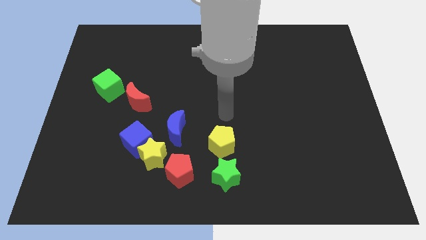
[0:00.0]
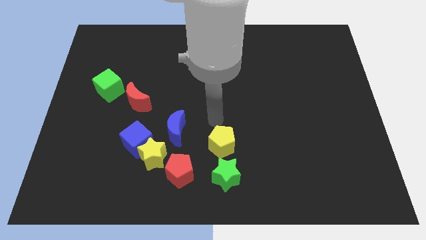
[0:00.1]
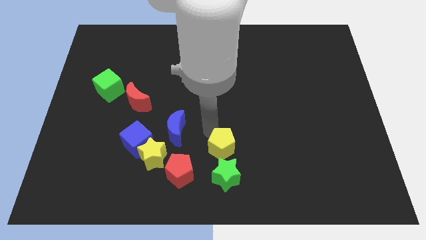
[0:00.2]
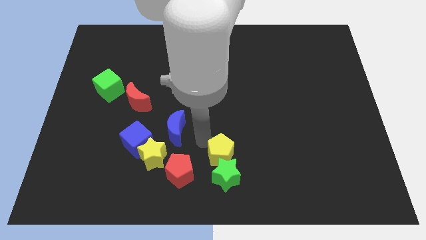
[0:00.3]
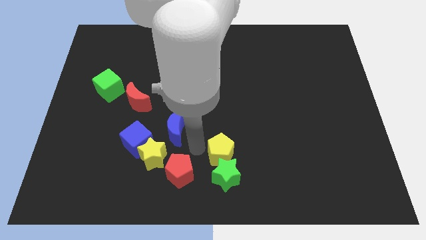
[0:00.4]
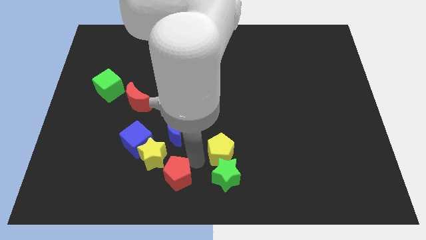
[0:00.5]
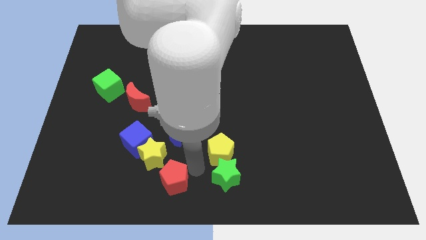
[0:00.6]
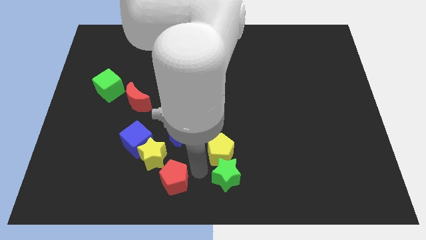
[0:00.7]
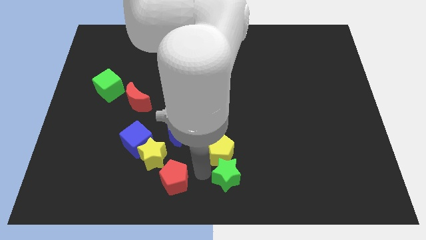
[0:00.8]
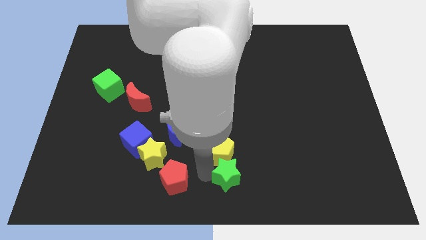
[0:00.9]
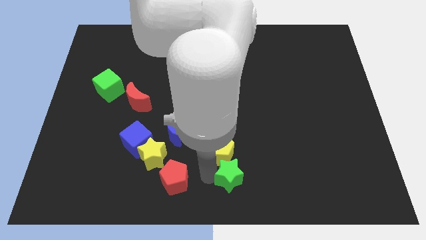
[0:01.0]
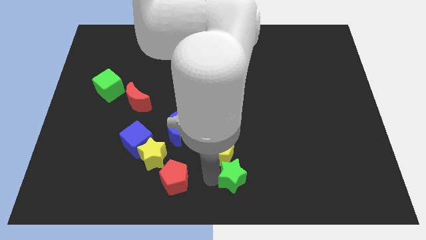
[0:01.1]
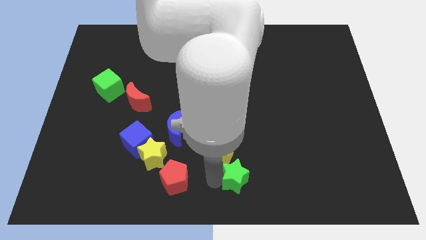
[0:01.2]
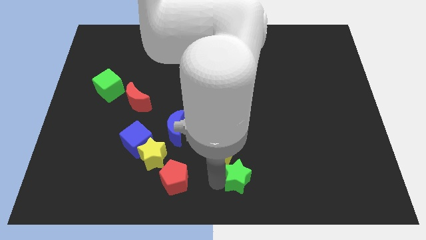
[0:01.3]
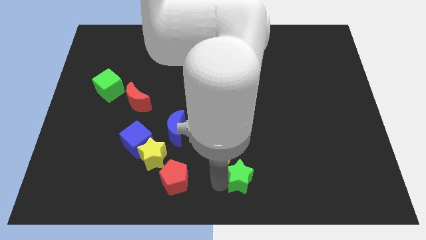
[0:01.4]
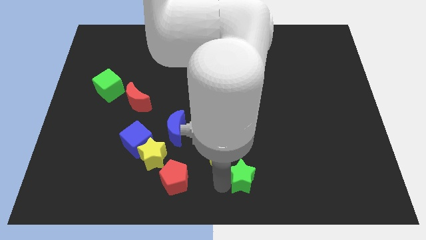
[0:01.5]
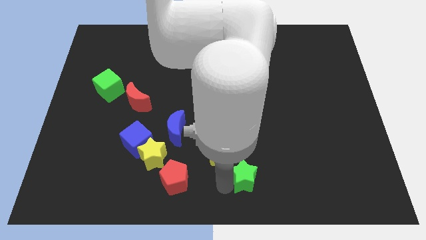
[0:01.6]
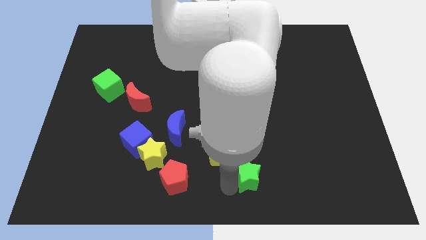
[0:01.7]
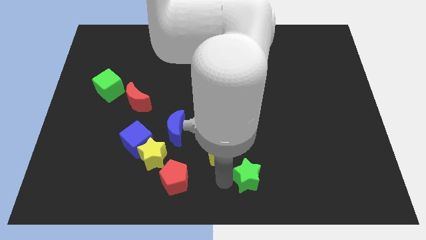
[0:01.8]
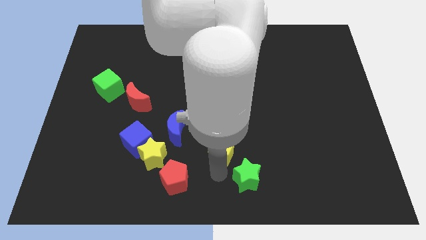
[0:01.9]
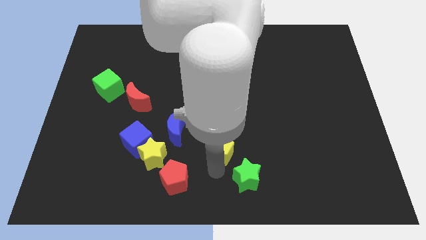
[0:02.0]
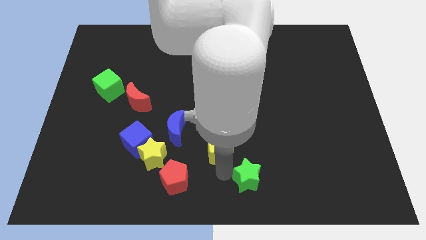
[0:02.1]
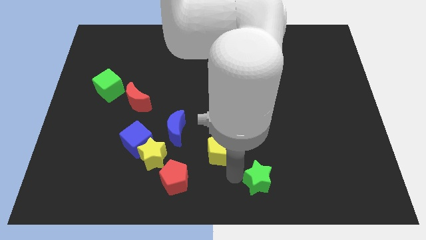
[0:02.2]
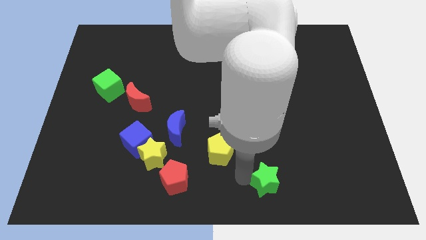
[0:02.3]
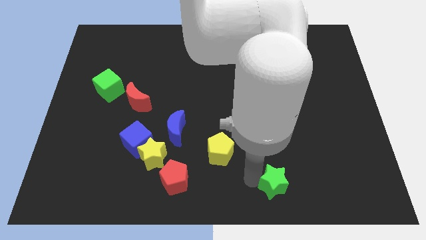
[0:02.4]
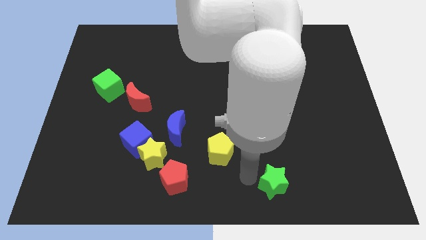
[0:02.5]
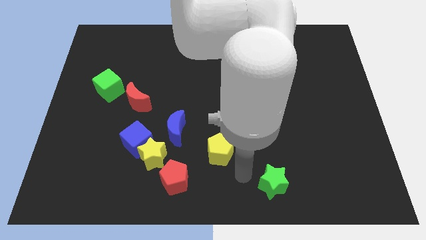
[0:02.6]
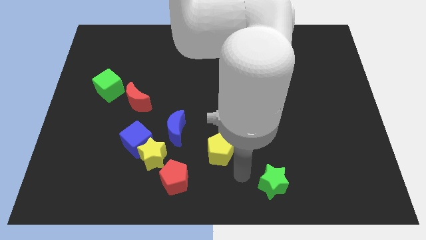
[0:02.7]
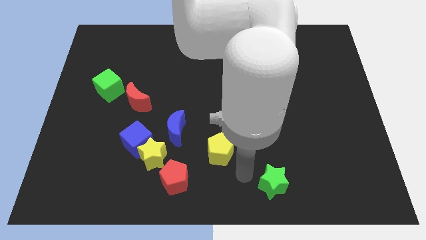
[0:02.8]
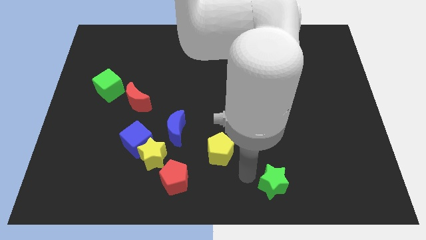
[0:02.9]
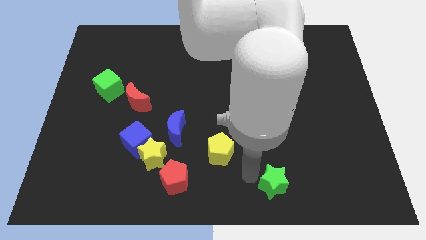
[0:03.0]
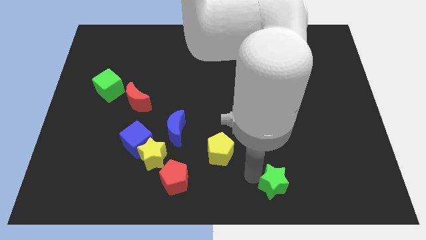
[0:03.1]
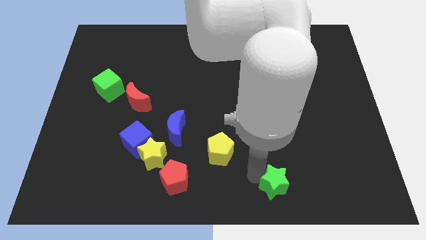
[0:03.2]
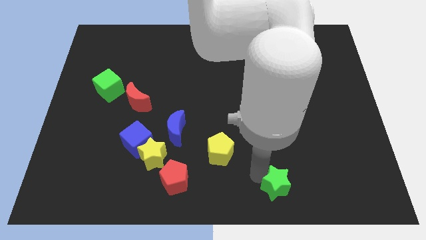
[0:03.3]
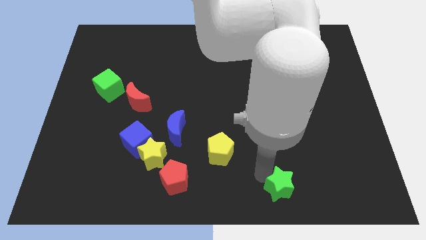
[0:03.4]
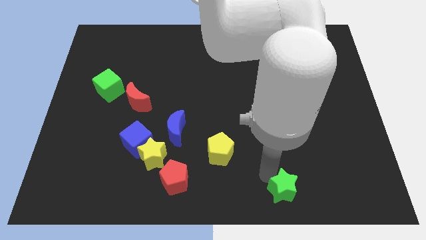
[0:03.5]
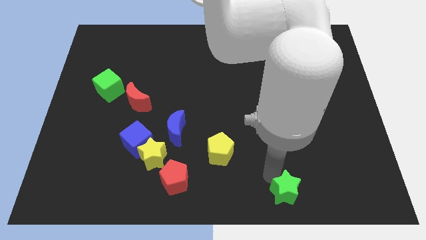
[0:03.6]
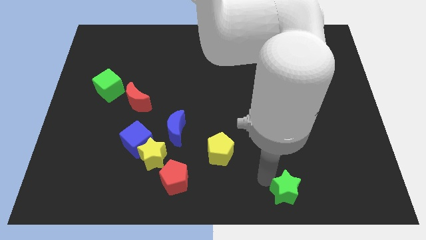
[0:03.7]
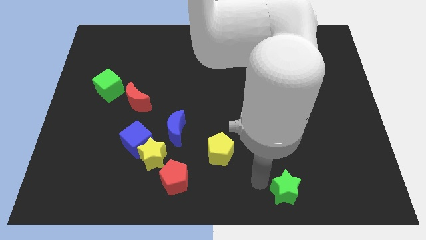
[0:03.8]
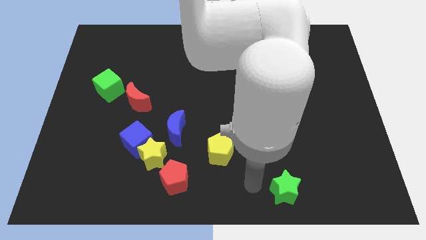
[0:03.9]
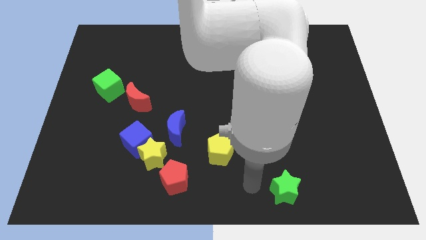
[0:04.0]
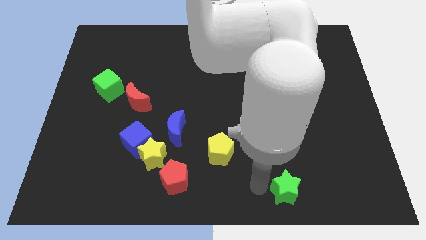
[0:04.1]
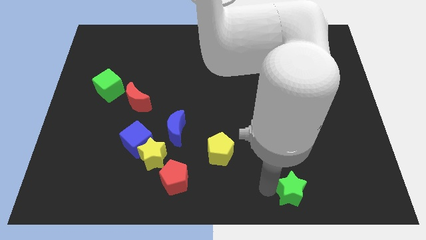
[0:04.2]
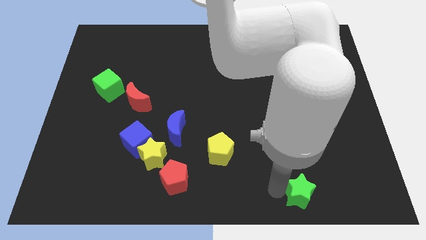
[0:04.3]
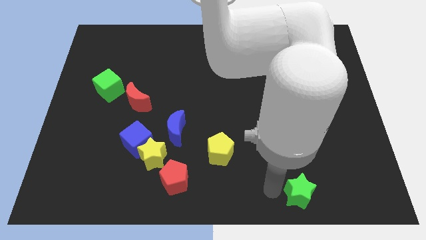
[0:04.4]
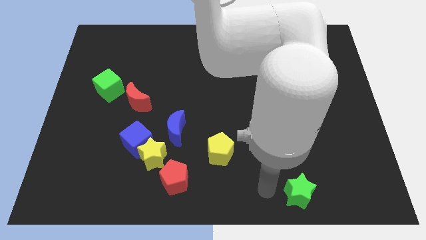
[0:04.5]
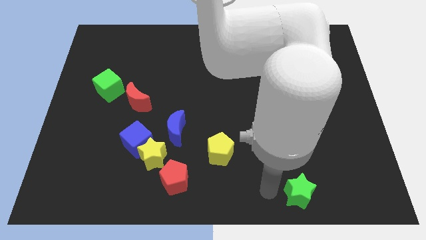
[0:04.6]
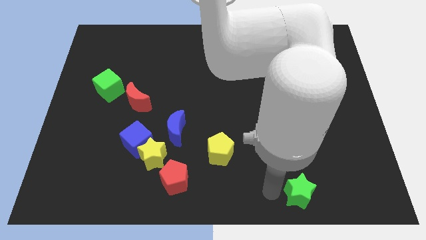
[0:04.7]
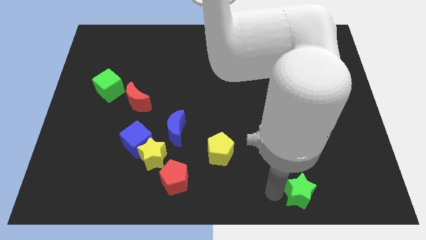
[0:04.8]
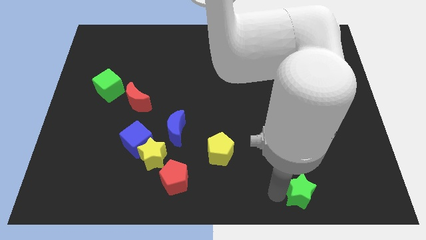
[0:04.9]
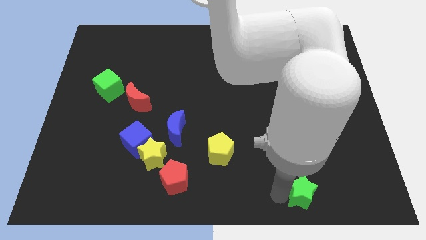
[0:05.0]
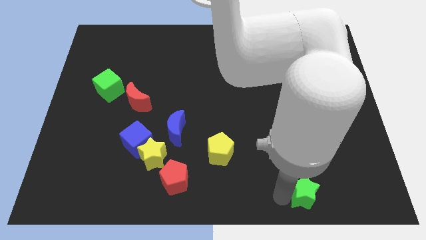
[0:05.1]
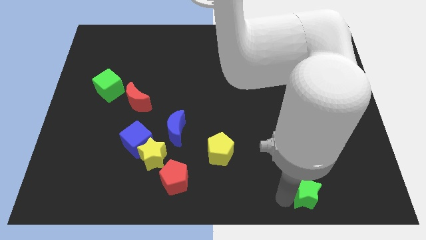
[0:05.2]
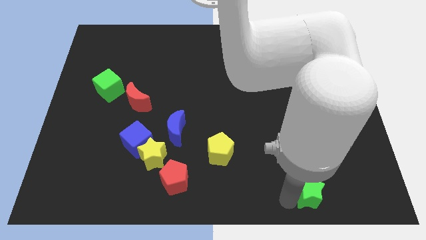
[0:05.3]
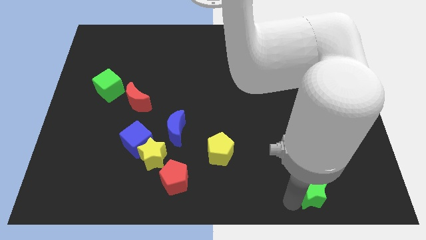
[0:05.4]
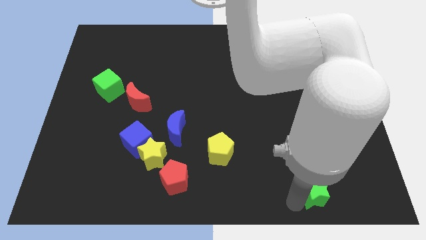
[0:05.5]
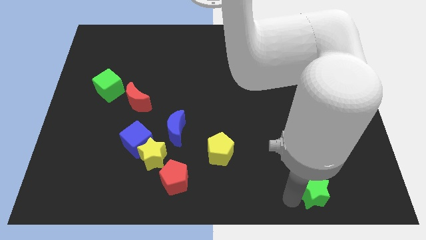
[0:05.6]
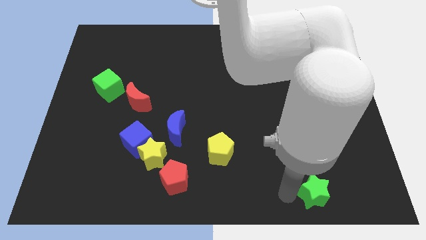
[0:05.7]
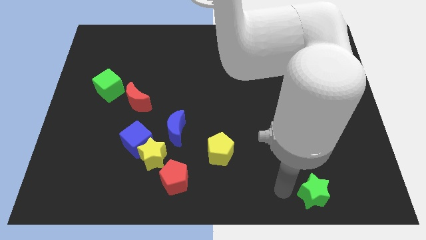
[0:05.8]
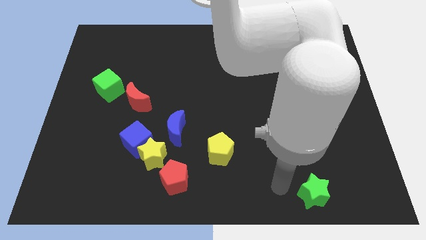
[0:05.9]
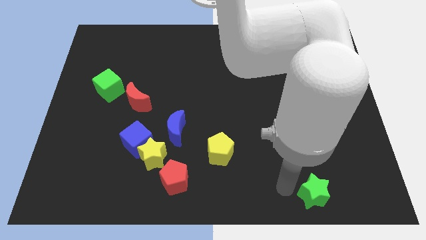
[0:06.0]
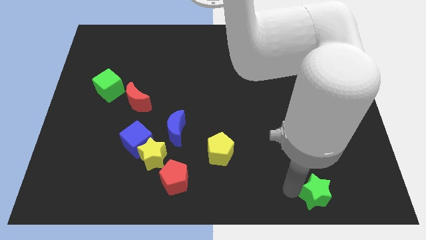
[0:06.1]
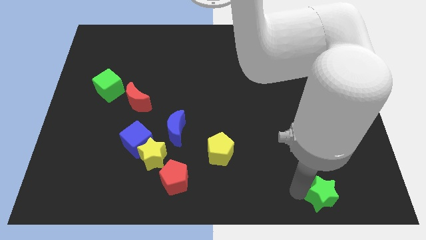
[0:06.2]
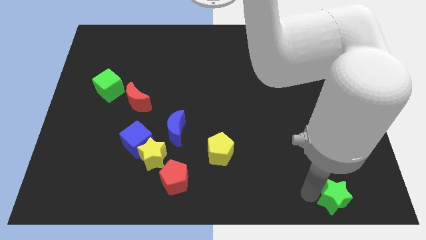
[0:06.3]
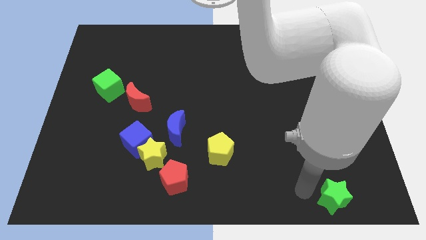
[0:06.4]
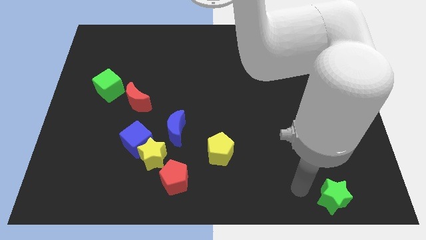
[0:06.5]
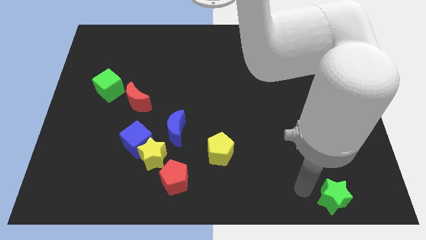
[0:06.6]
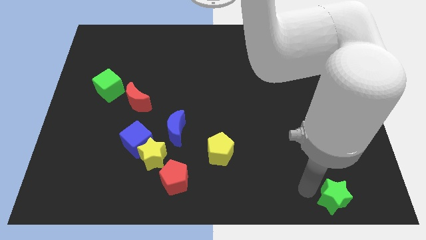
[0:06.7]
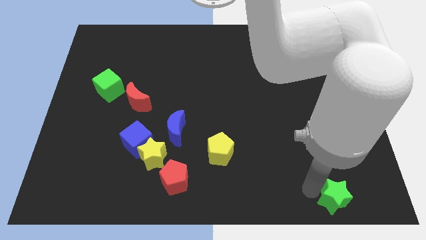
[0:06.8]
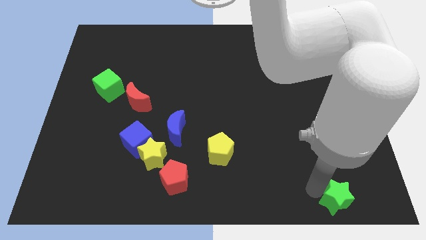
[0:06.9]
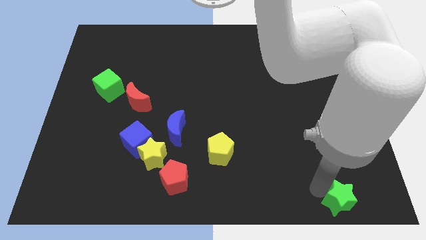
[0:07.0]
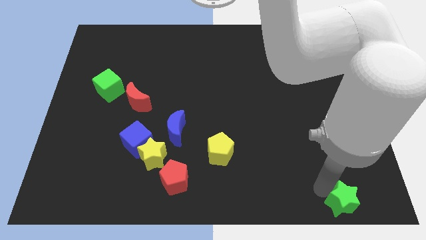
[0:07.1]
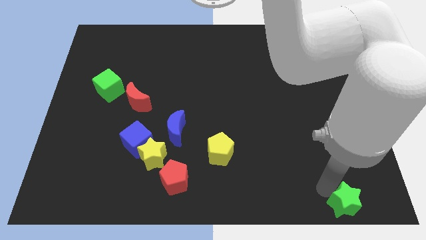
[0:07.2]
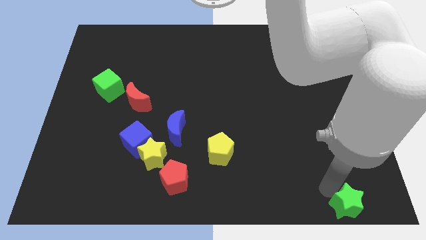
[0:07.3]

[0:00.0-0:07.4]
move the green star to the bottom right of the board
